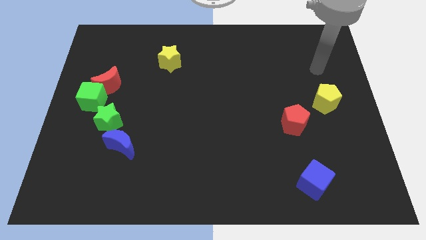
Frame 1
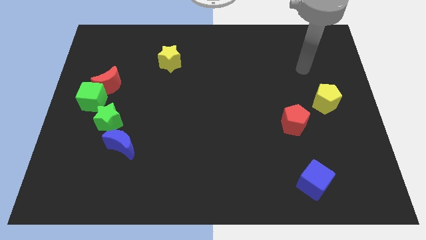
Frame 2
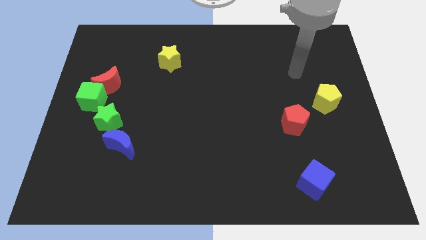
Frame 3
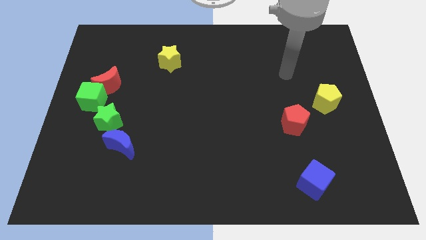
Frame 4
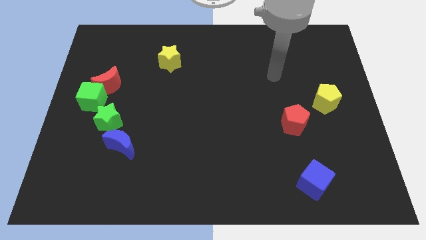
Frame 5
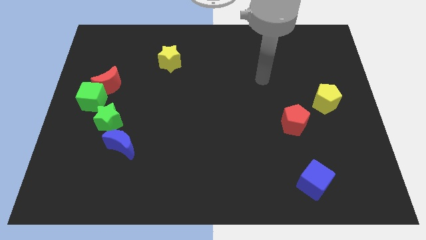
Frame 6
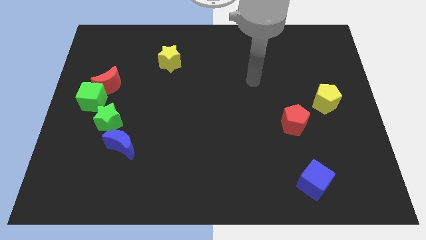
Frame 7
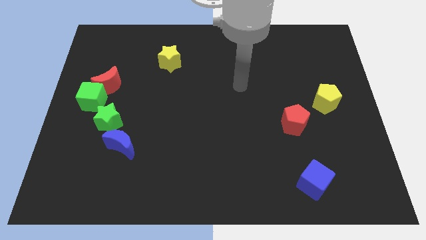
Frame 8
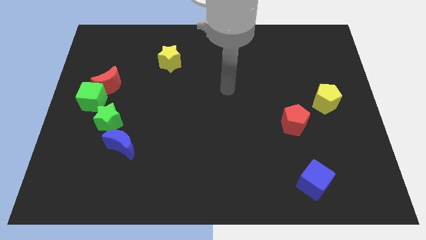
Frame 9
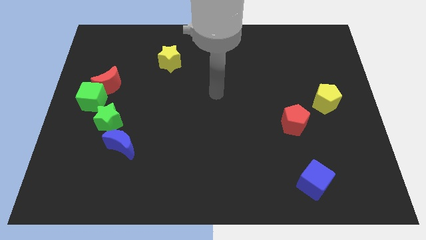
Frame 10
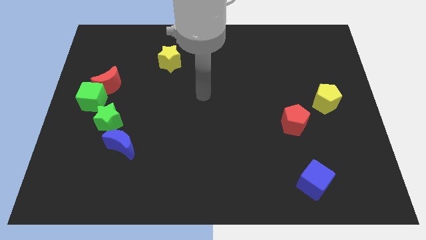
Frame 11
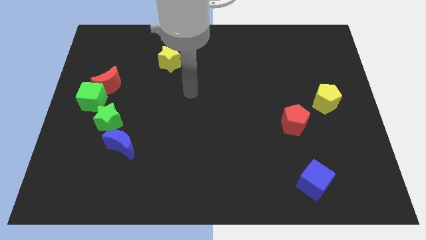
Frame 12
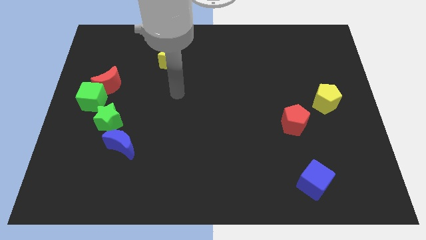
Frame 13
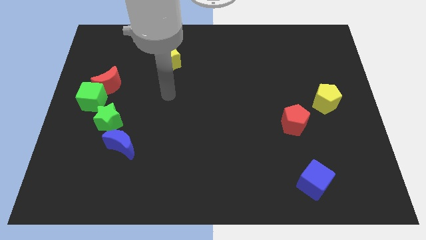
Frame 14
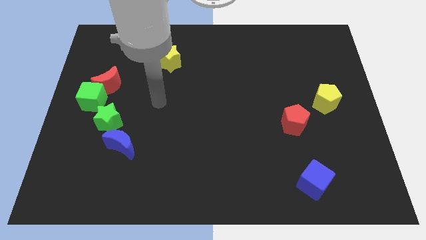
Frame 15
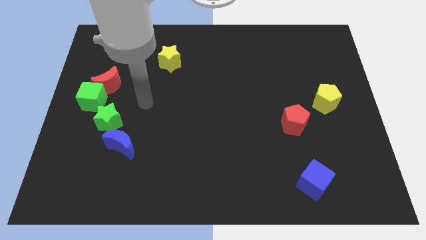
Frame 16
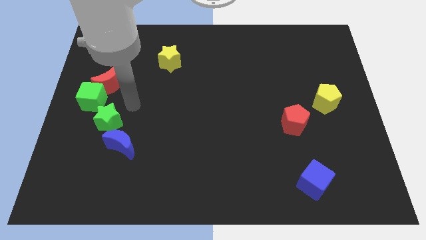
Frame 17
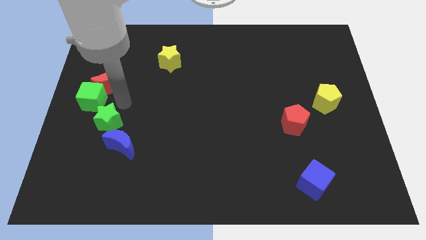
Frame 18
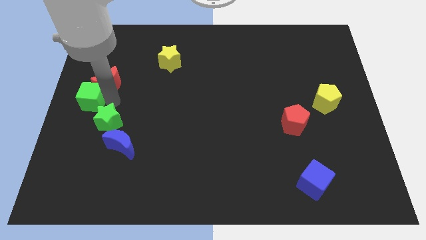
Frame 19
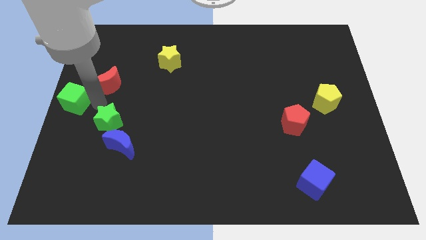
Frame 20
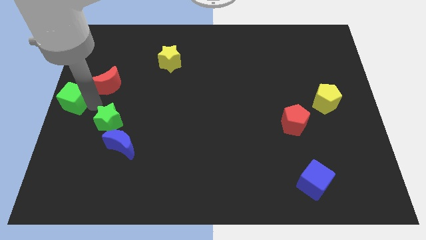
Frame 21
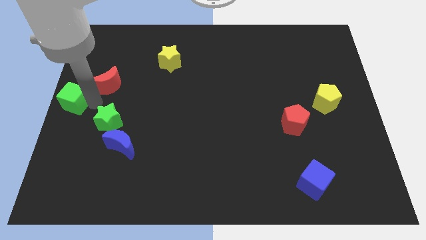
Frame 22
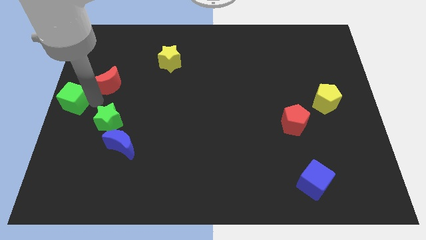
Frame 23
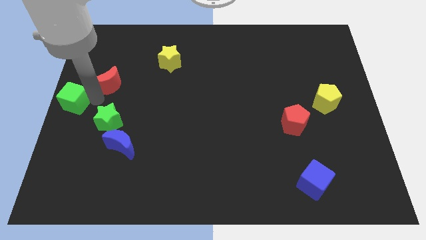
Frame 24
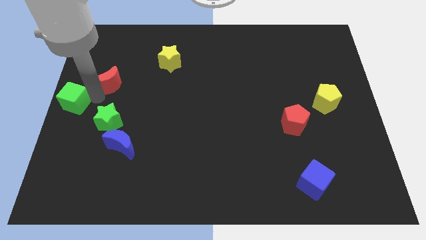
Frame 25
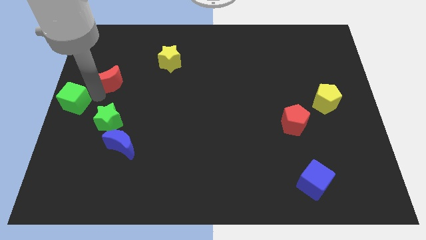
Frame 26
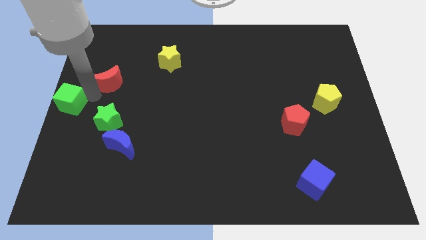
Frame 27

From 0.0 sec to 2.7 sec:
pull the red moon apart from the green cube

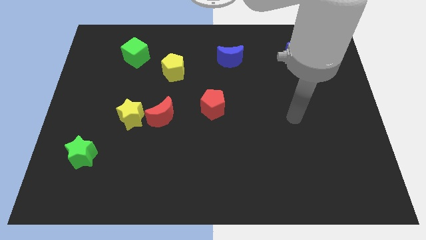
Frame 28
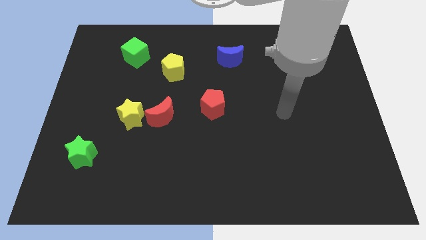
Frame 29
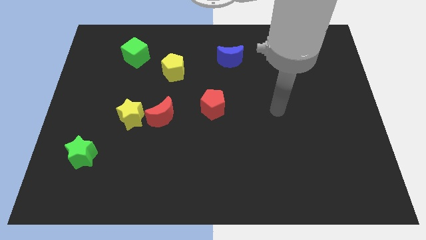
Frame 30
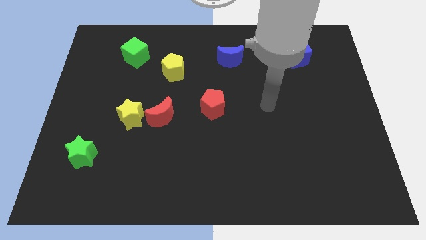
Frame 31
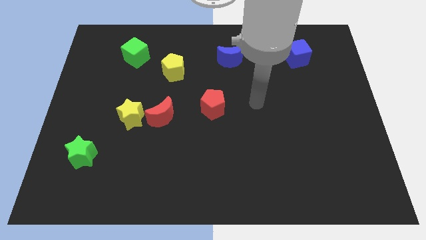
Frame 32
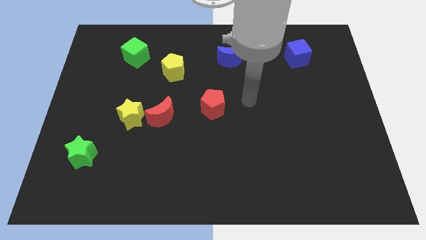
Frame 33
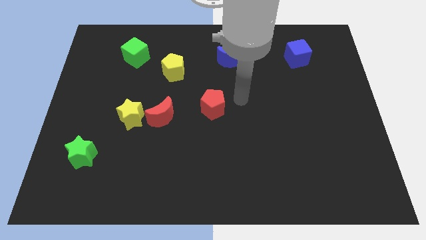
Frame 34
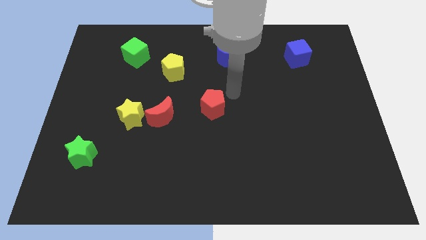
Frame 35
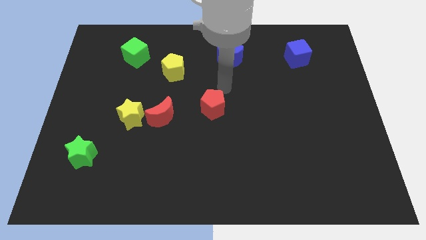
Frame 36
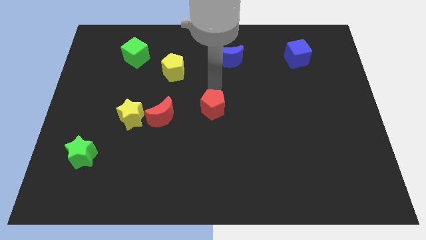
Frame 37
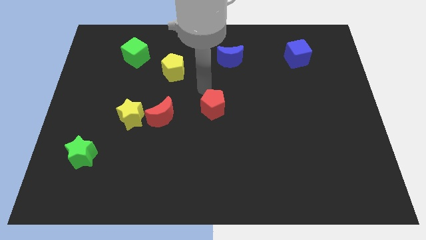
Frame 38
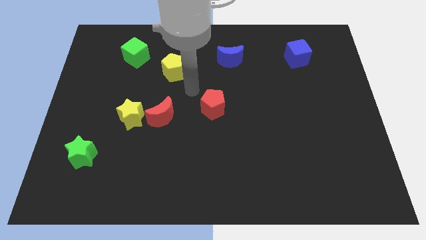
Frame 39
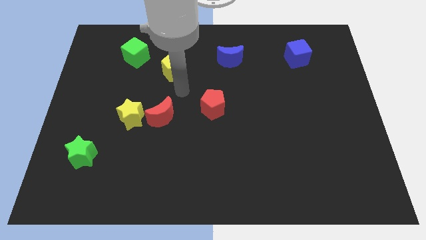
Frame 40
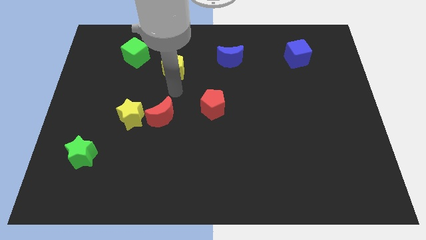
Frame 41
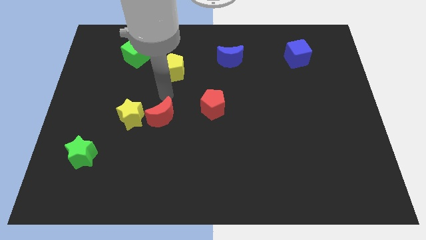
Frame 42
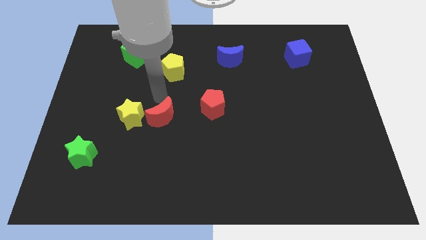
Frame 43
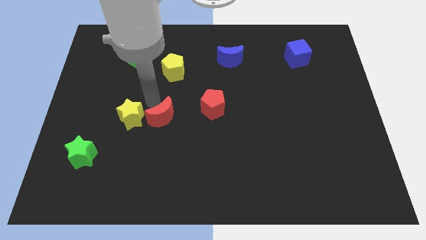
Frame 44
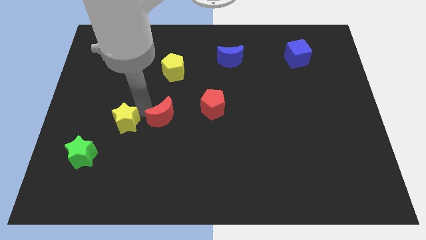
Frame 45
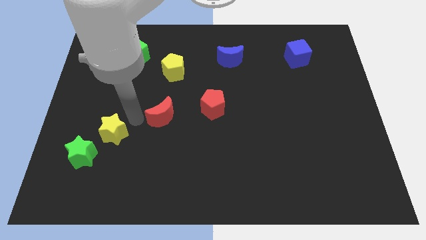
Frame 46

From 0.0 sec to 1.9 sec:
pull the red moon apart from the yellow star

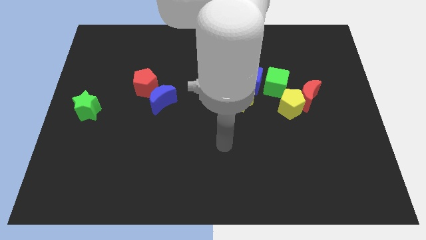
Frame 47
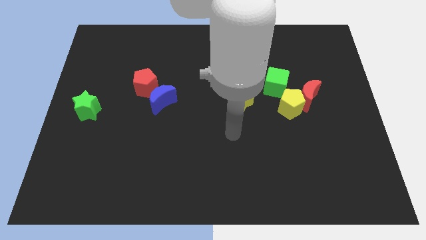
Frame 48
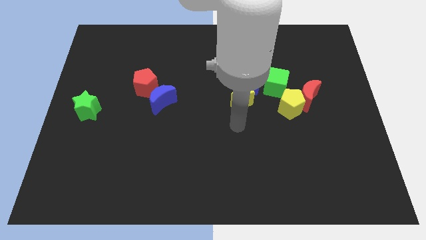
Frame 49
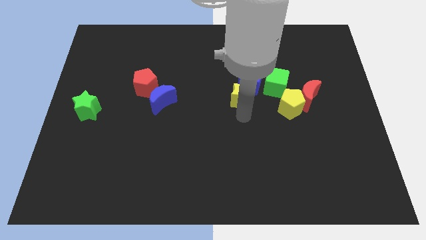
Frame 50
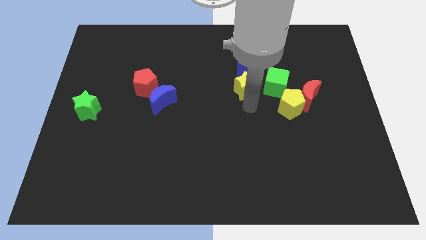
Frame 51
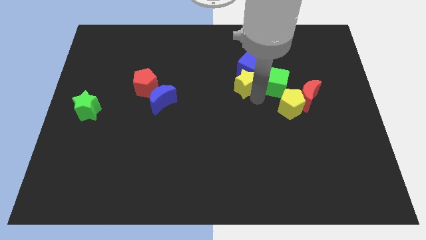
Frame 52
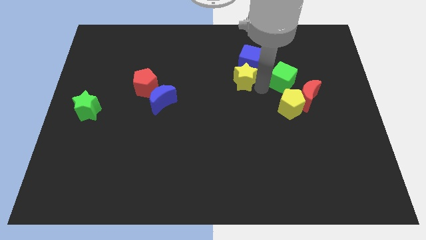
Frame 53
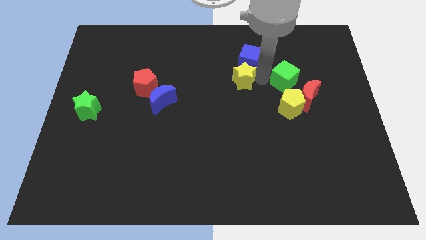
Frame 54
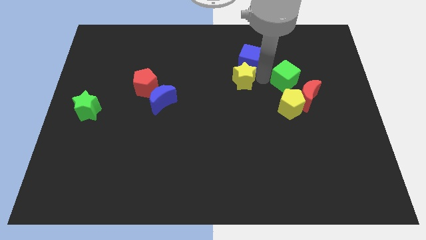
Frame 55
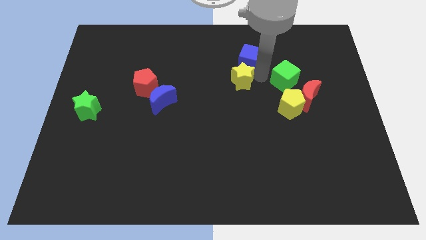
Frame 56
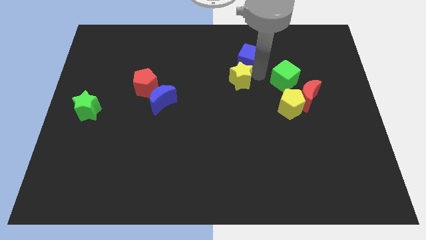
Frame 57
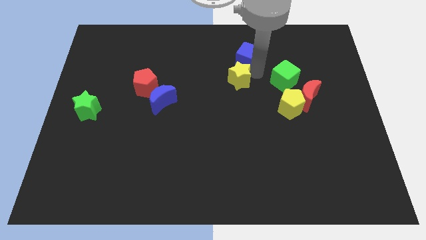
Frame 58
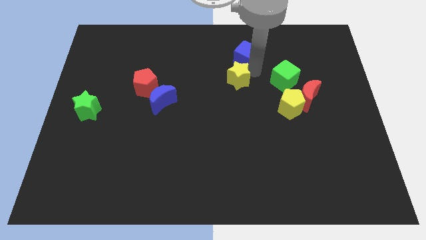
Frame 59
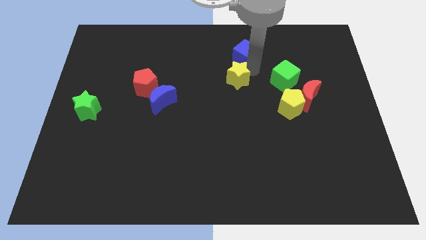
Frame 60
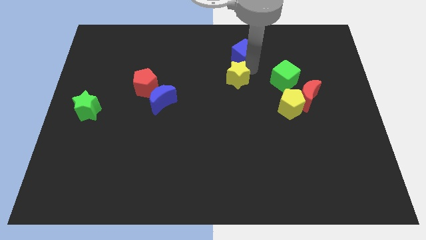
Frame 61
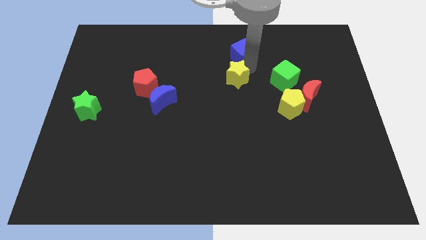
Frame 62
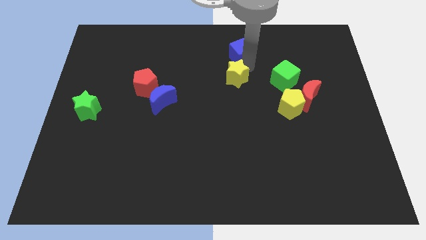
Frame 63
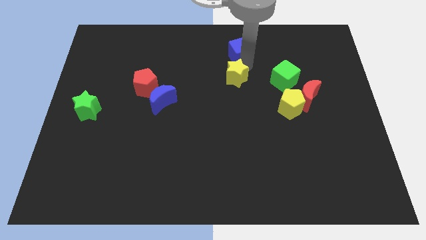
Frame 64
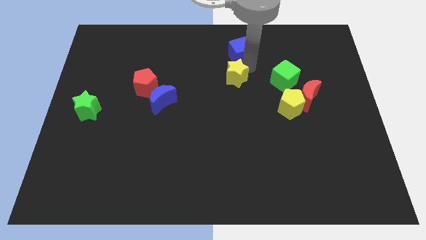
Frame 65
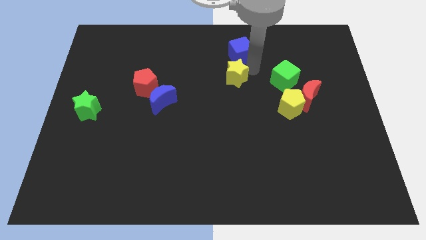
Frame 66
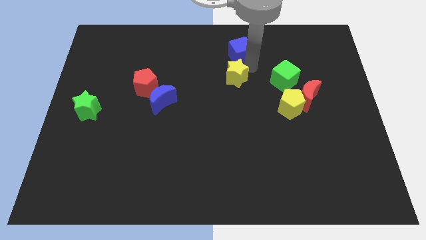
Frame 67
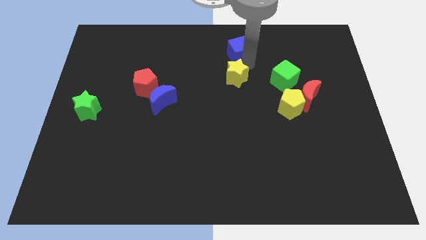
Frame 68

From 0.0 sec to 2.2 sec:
move the blue cube away from the yellow star and green cube

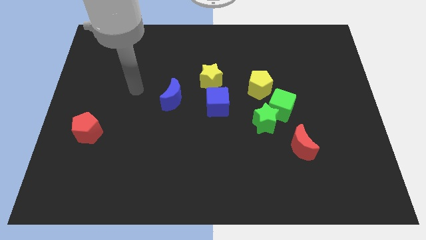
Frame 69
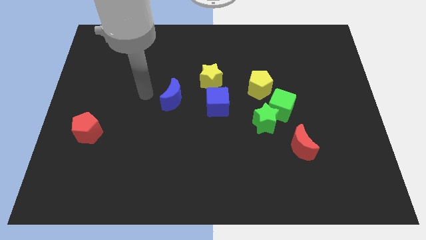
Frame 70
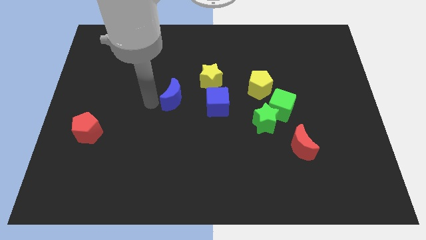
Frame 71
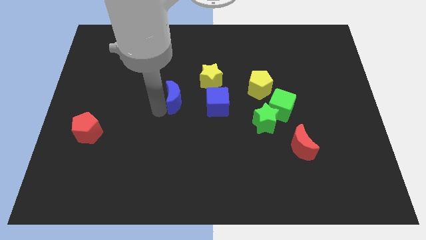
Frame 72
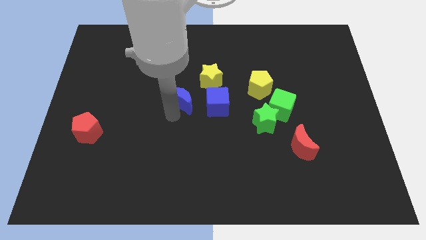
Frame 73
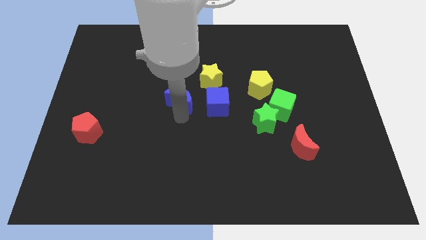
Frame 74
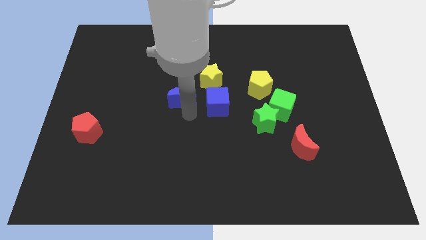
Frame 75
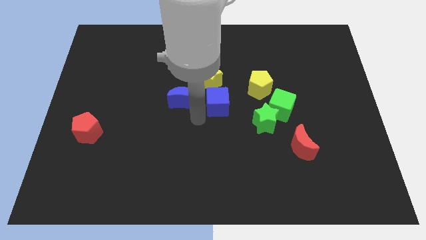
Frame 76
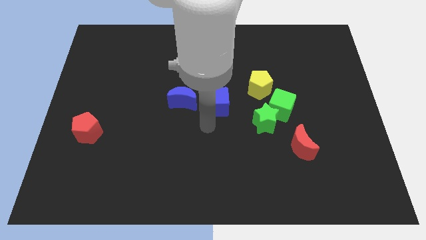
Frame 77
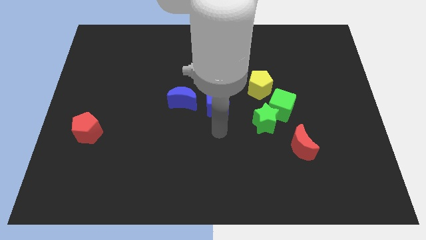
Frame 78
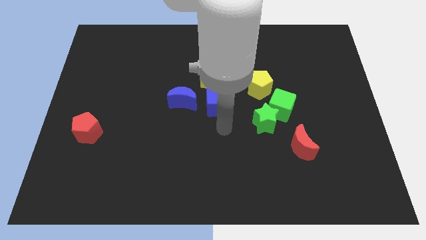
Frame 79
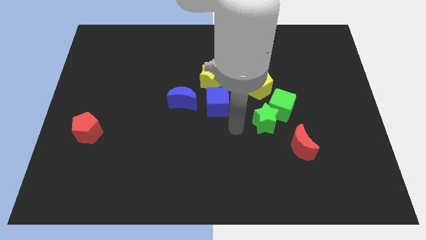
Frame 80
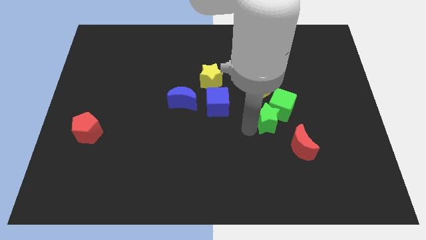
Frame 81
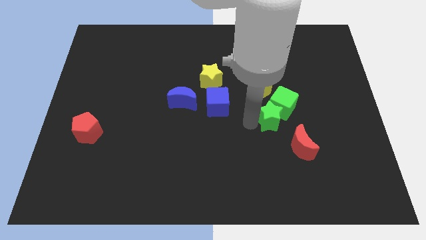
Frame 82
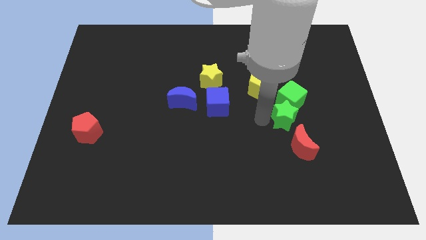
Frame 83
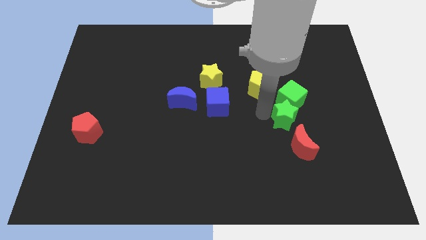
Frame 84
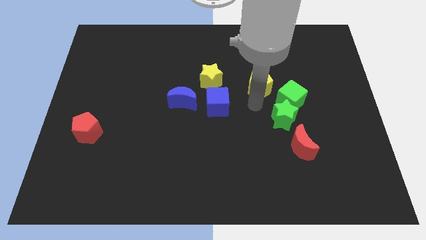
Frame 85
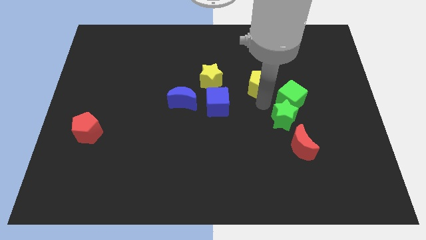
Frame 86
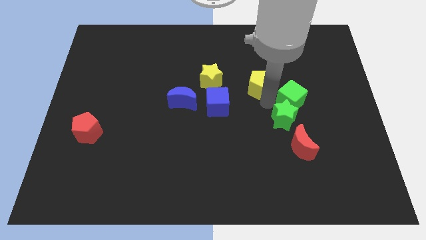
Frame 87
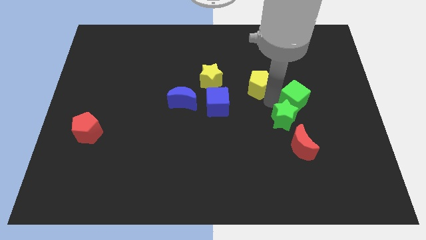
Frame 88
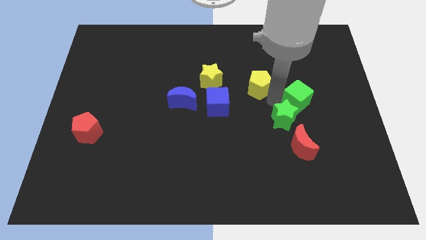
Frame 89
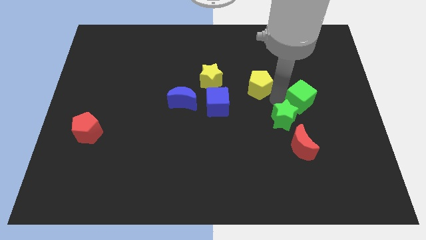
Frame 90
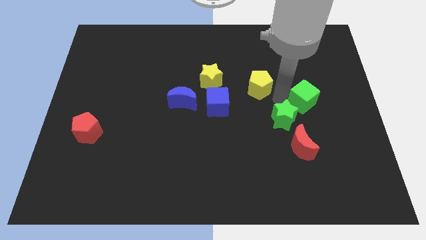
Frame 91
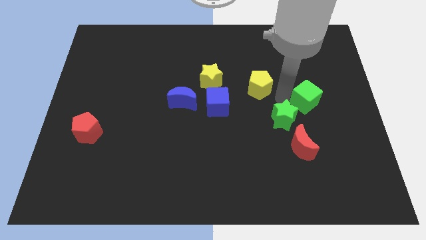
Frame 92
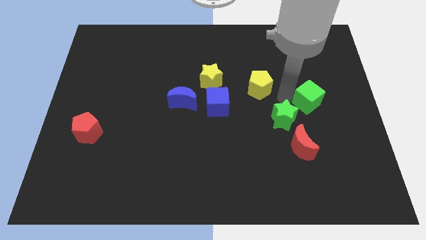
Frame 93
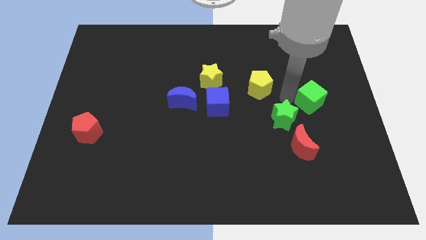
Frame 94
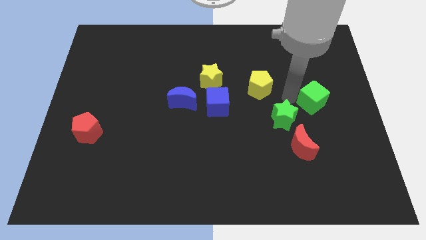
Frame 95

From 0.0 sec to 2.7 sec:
move the green cube away from the green star and yellow pentagon
